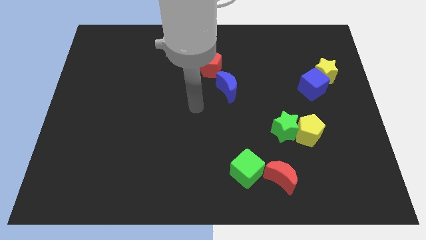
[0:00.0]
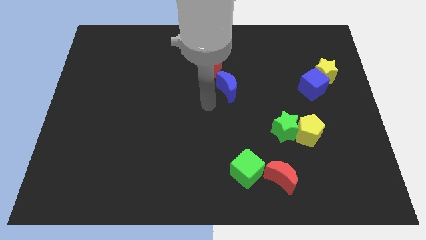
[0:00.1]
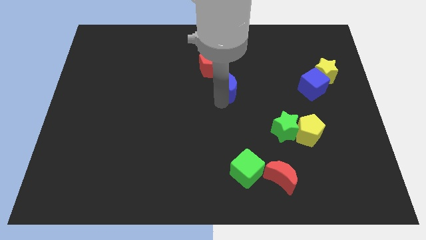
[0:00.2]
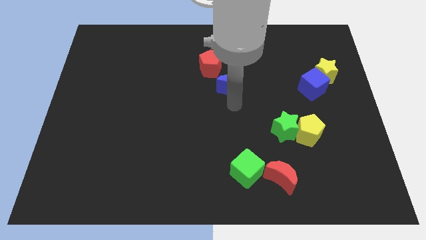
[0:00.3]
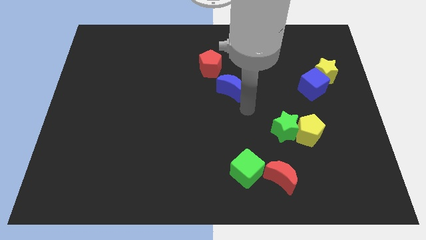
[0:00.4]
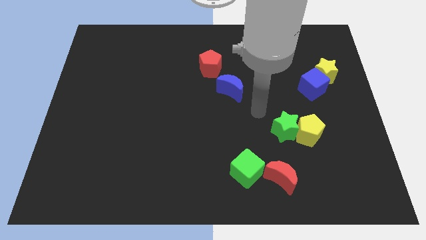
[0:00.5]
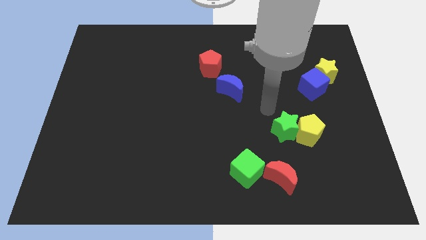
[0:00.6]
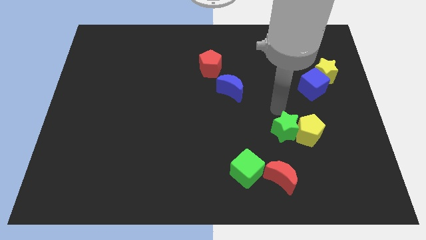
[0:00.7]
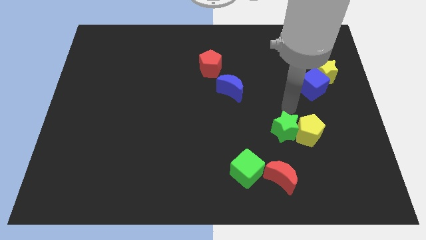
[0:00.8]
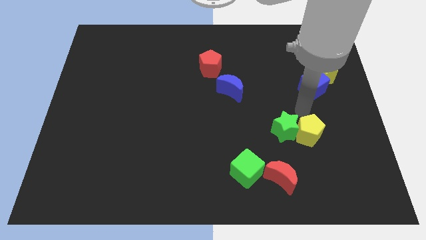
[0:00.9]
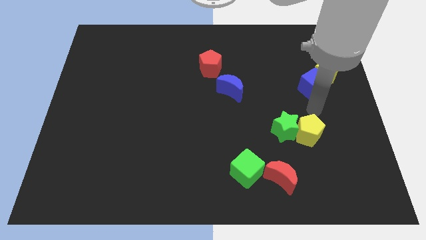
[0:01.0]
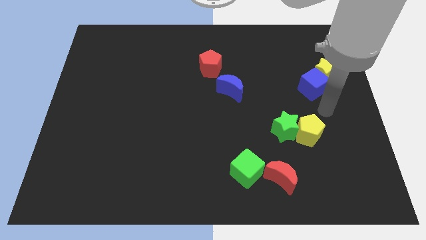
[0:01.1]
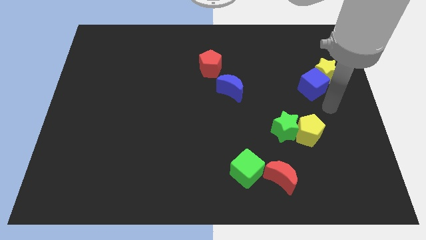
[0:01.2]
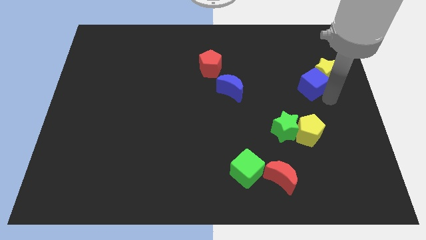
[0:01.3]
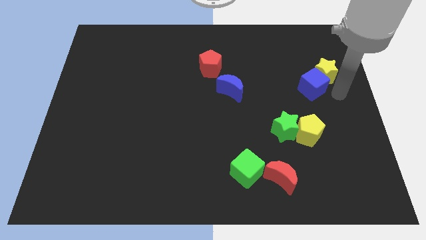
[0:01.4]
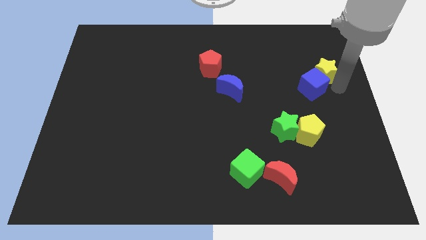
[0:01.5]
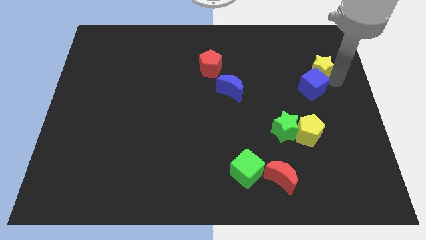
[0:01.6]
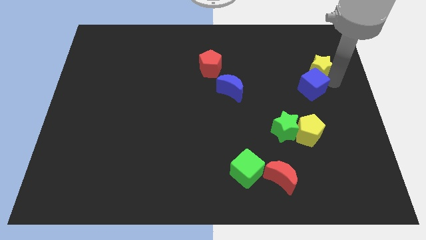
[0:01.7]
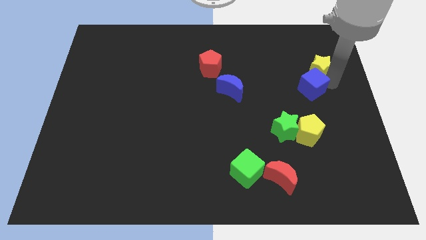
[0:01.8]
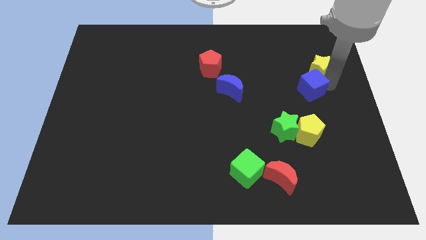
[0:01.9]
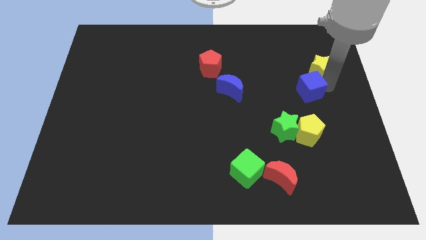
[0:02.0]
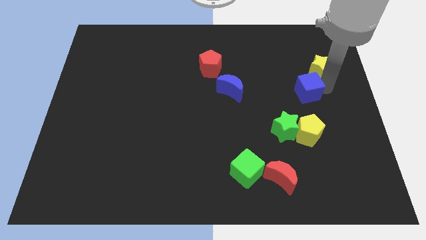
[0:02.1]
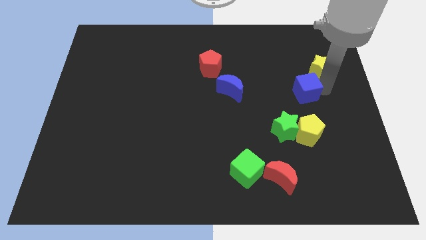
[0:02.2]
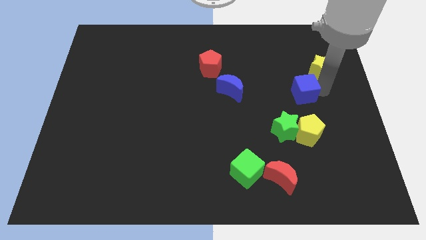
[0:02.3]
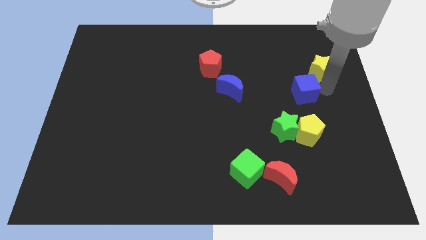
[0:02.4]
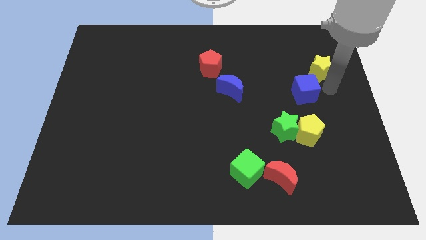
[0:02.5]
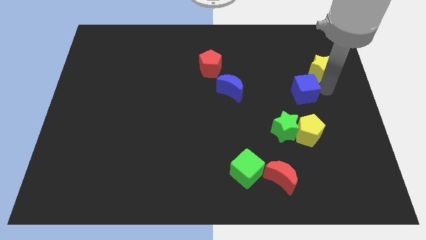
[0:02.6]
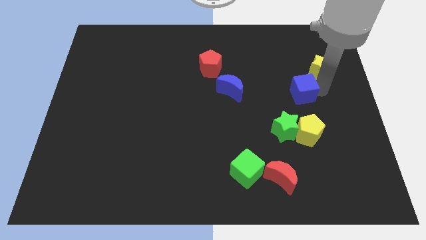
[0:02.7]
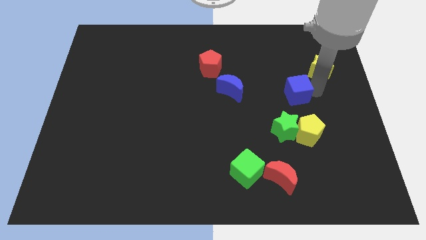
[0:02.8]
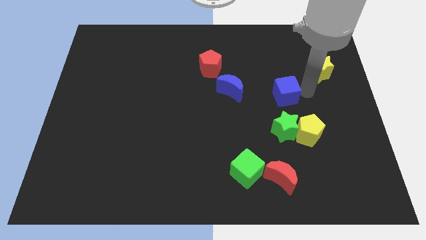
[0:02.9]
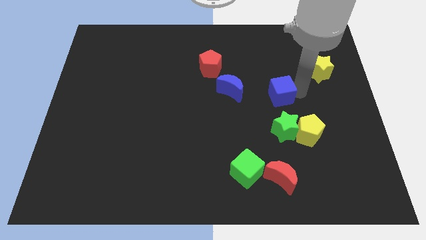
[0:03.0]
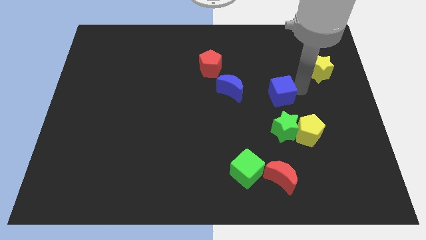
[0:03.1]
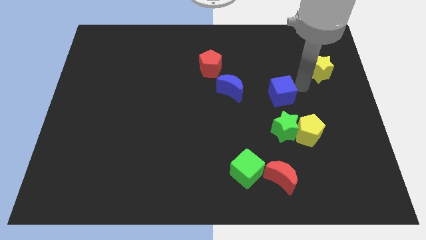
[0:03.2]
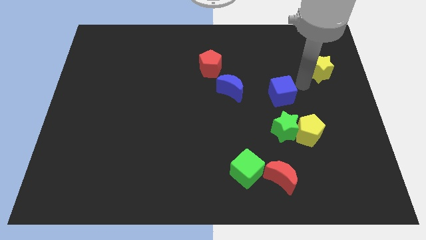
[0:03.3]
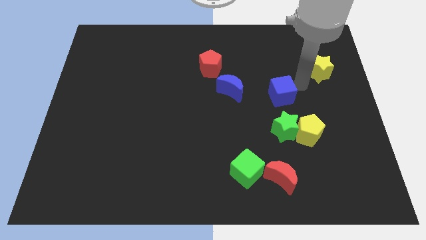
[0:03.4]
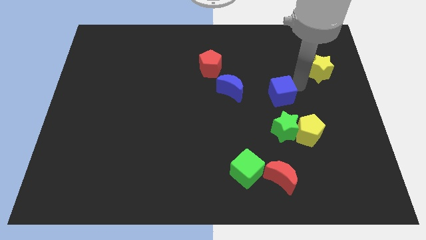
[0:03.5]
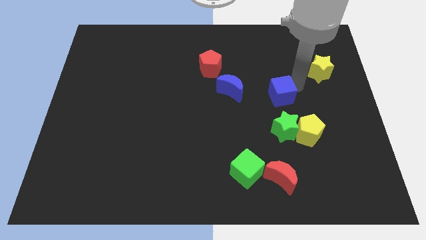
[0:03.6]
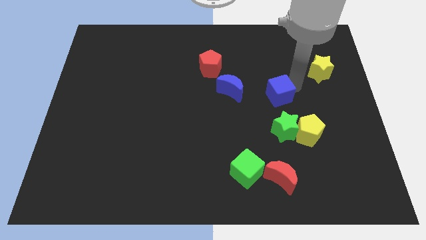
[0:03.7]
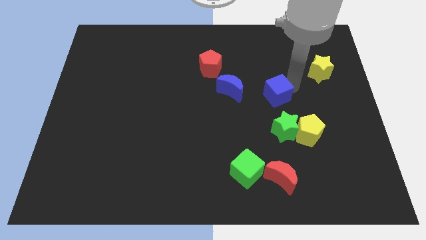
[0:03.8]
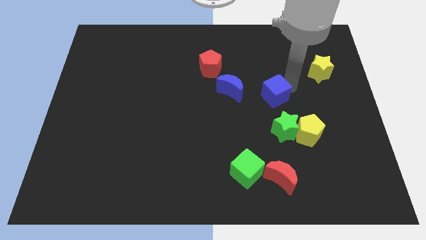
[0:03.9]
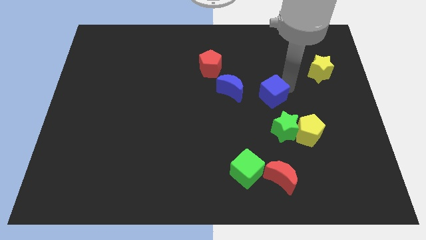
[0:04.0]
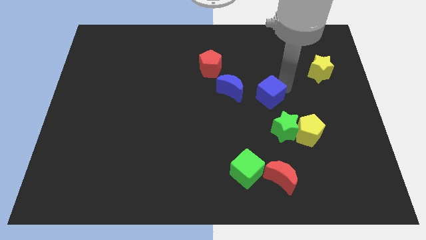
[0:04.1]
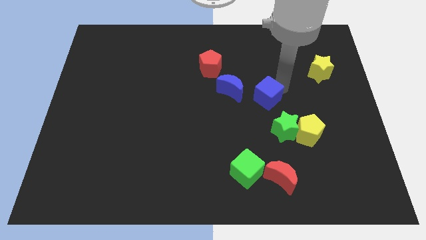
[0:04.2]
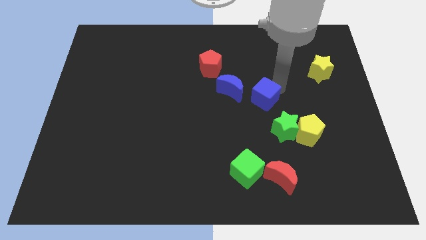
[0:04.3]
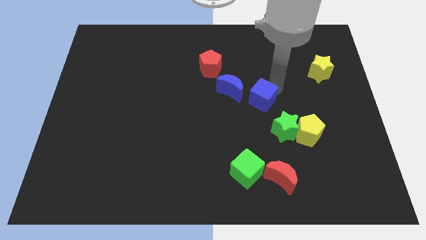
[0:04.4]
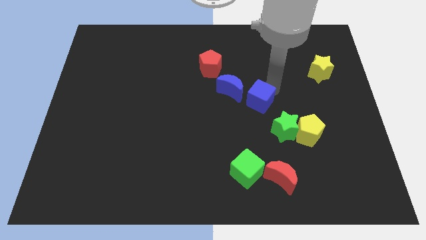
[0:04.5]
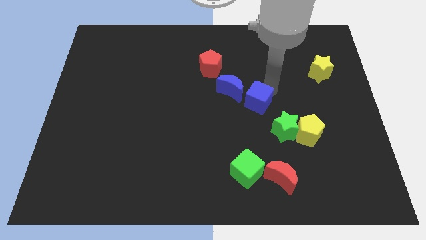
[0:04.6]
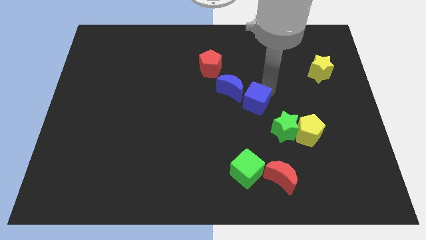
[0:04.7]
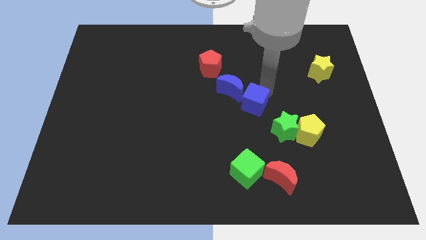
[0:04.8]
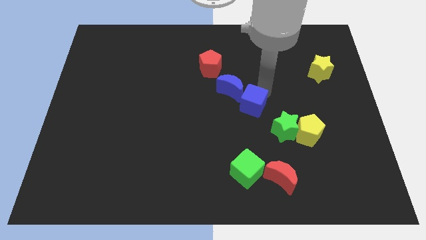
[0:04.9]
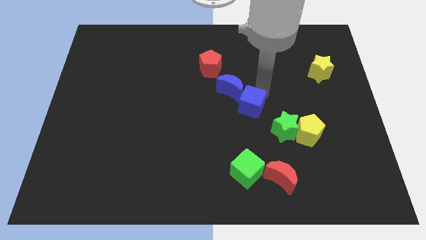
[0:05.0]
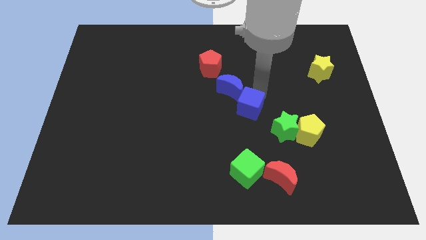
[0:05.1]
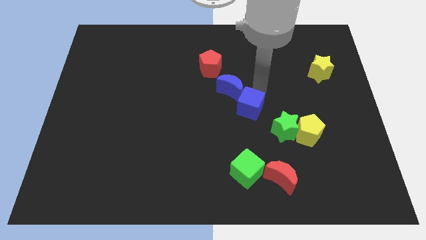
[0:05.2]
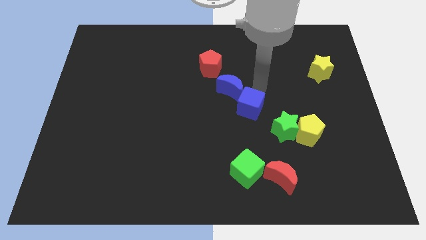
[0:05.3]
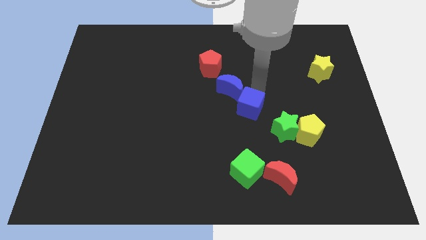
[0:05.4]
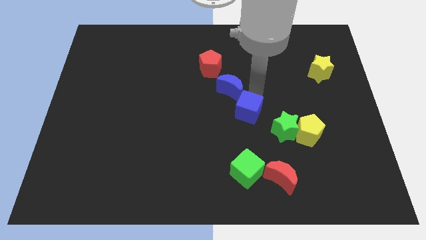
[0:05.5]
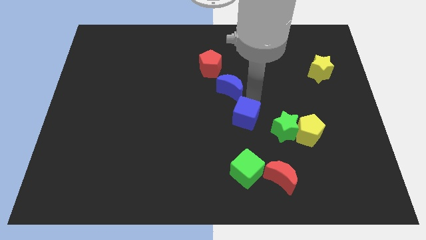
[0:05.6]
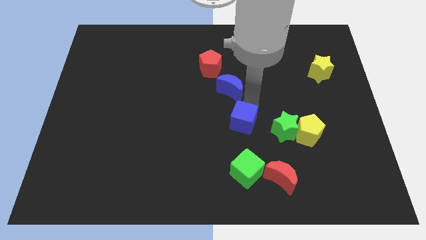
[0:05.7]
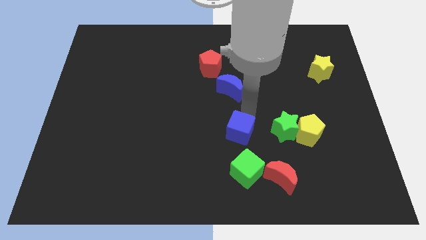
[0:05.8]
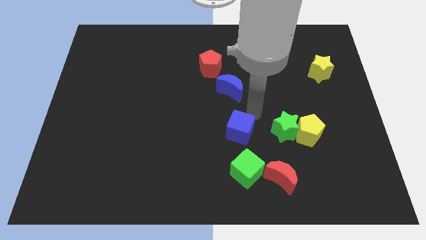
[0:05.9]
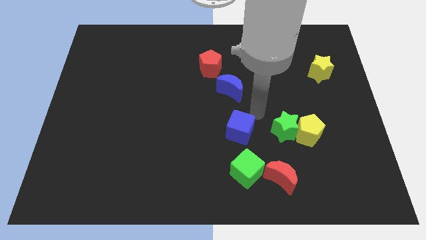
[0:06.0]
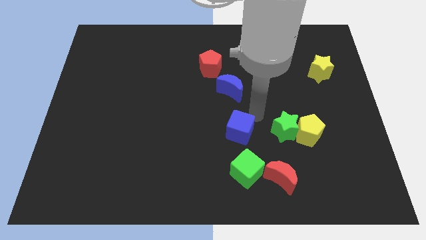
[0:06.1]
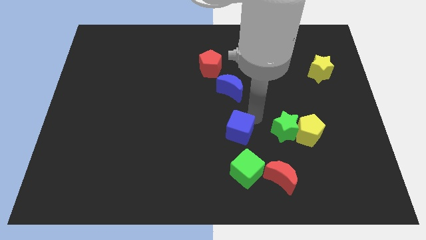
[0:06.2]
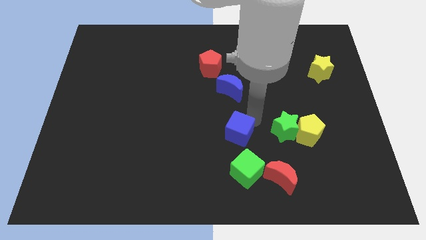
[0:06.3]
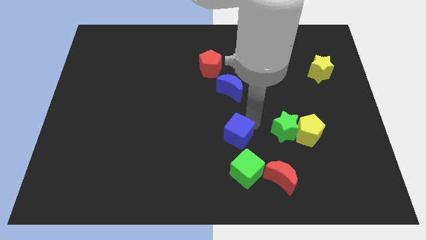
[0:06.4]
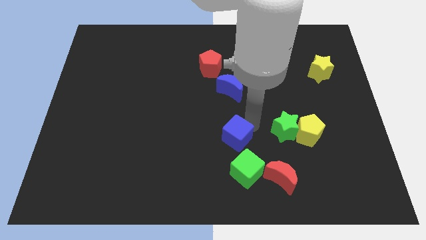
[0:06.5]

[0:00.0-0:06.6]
push the blue cube to the top left side of the green cube

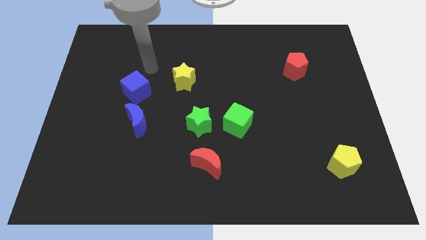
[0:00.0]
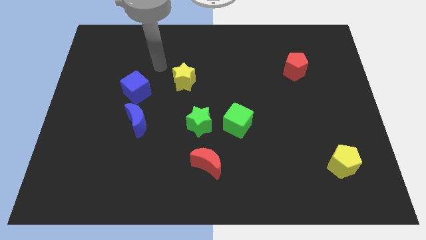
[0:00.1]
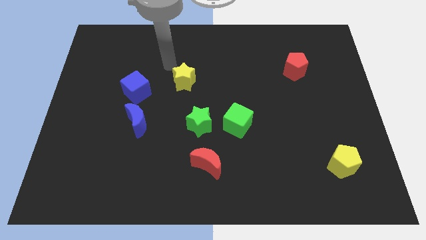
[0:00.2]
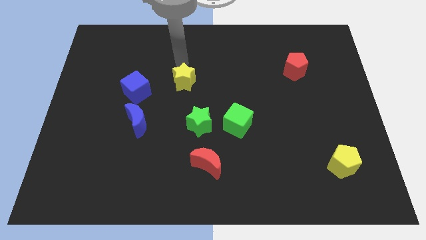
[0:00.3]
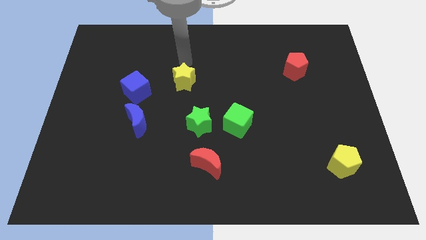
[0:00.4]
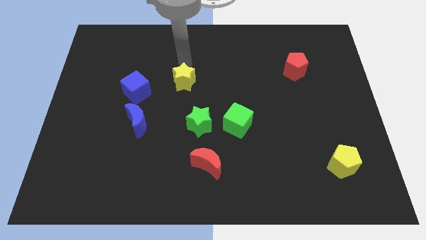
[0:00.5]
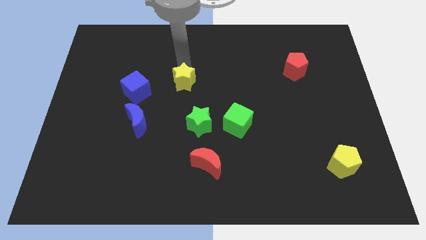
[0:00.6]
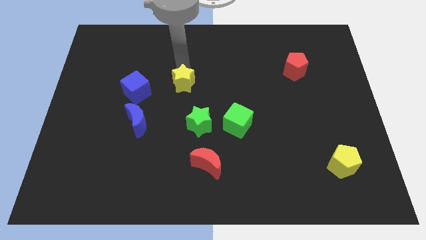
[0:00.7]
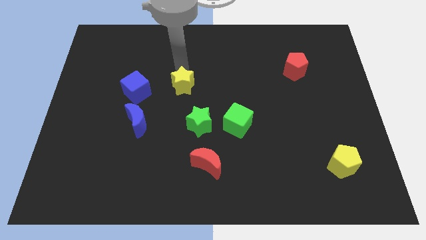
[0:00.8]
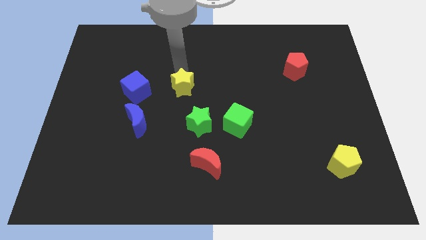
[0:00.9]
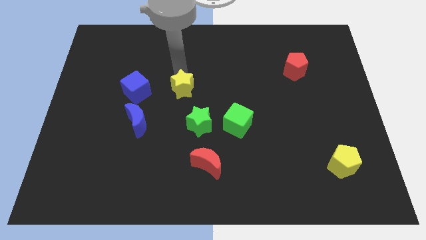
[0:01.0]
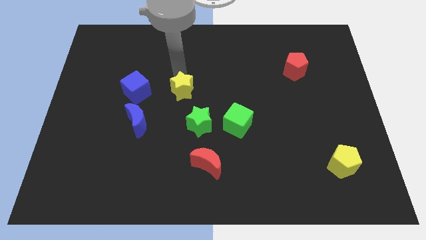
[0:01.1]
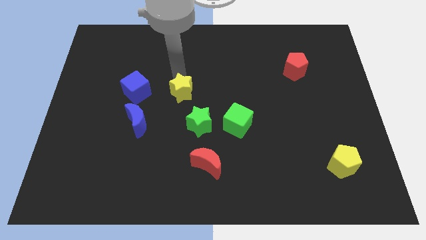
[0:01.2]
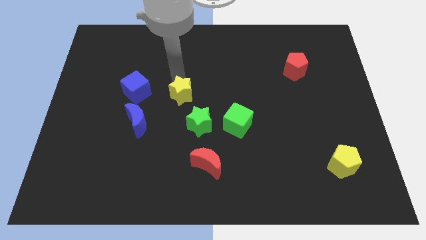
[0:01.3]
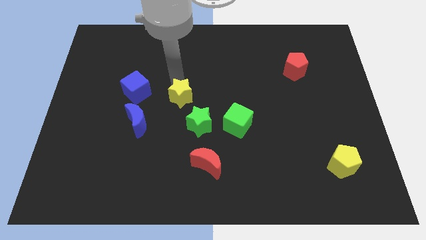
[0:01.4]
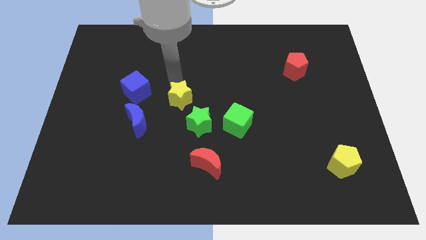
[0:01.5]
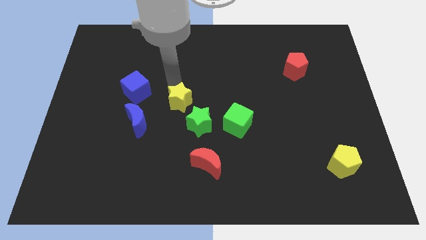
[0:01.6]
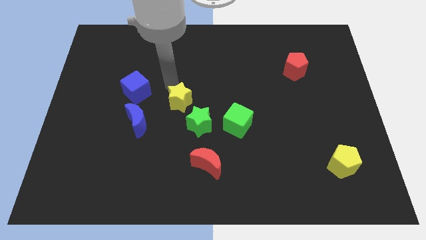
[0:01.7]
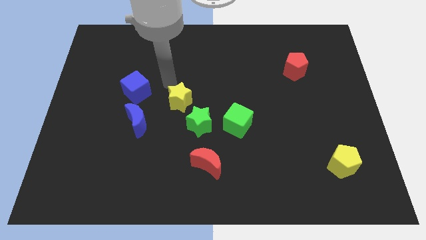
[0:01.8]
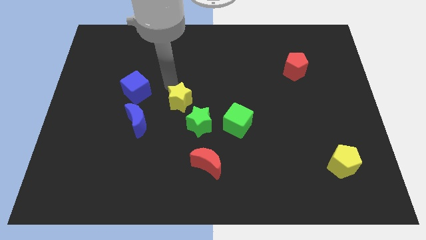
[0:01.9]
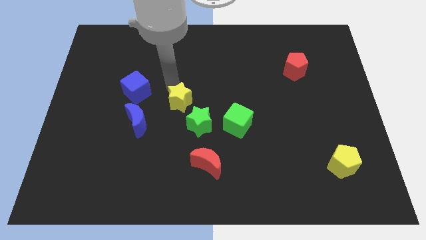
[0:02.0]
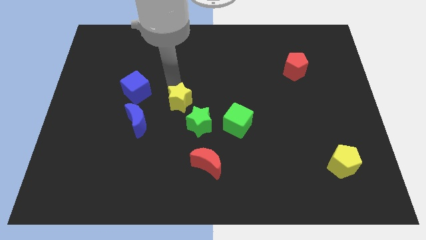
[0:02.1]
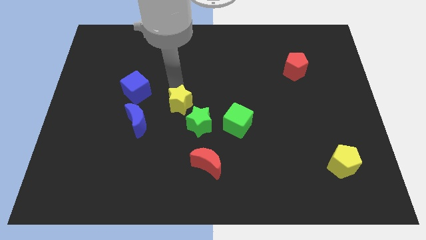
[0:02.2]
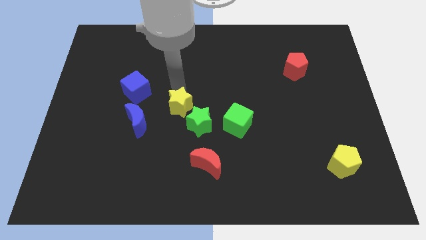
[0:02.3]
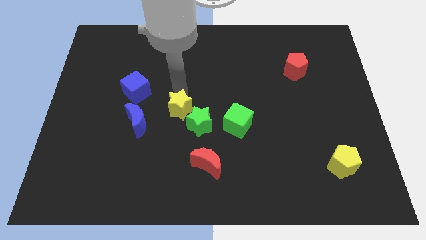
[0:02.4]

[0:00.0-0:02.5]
push the yellow star to the left of the green cube
